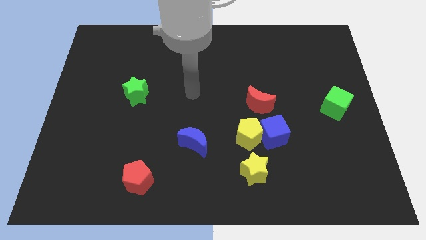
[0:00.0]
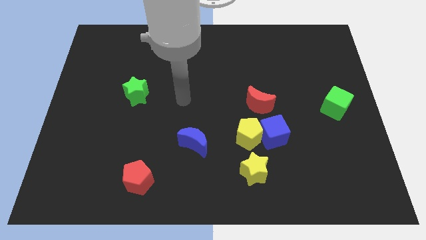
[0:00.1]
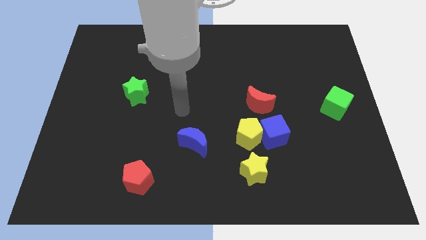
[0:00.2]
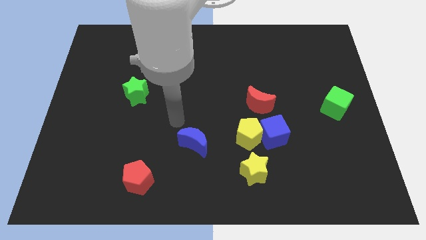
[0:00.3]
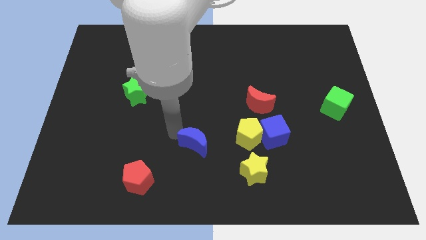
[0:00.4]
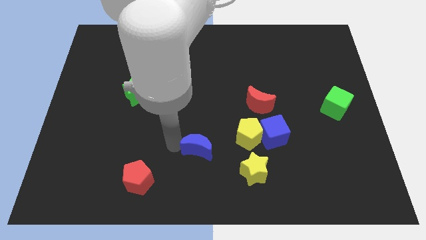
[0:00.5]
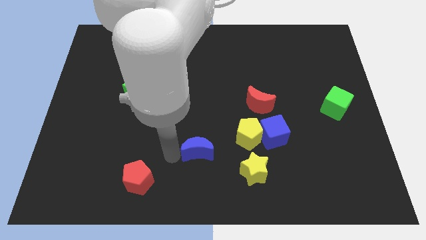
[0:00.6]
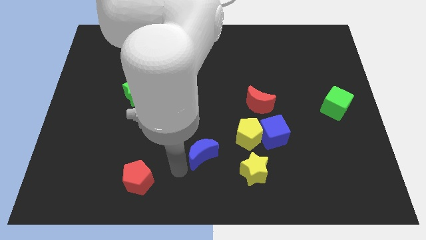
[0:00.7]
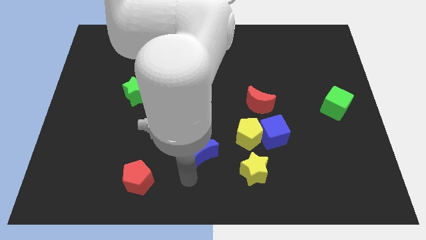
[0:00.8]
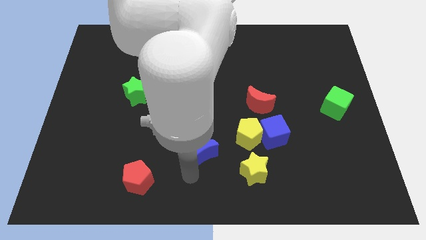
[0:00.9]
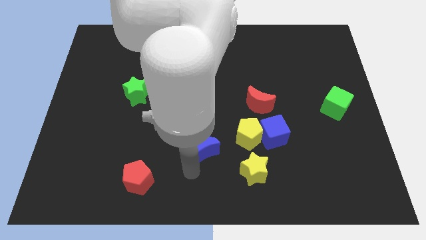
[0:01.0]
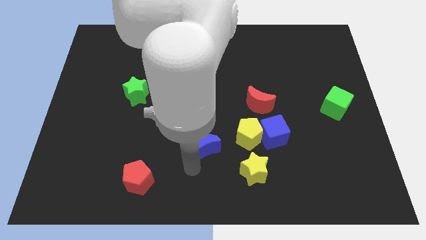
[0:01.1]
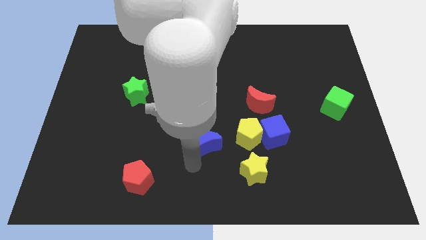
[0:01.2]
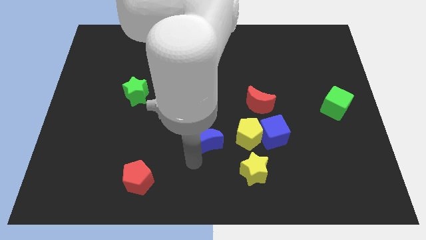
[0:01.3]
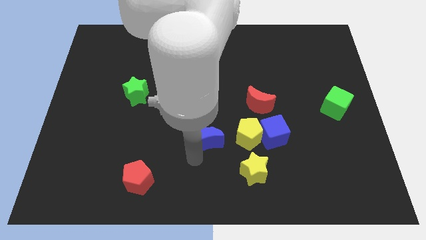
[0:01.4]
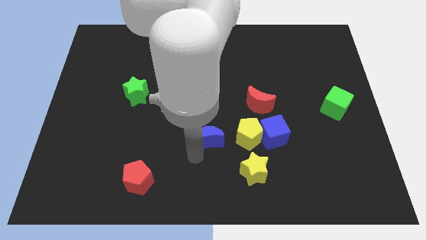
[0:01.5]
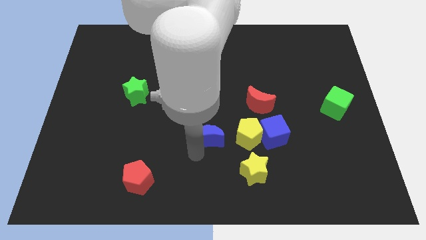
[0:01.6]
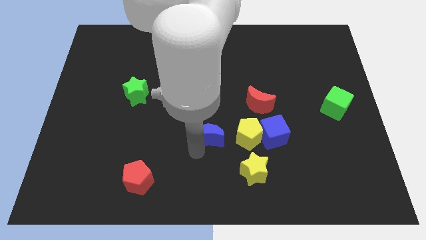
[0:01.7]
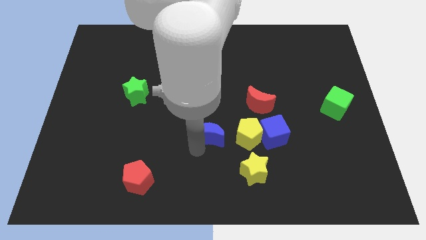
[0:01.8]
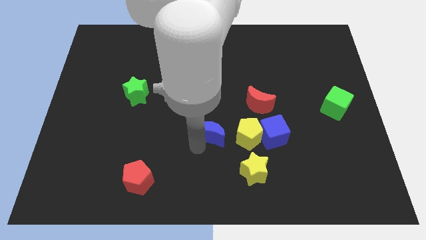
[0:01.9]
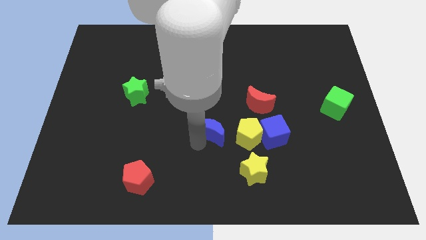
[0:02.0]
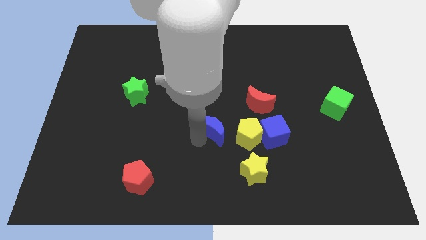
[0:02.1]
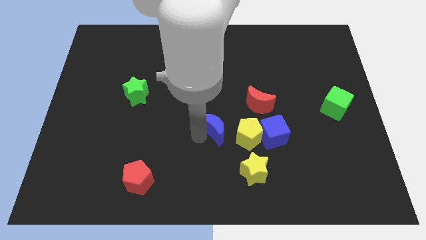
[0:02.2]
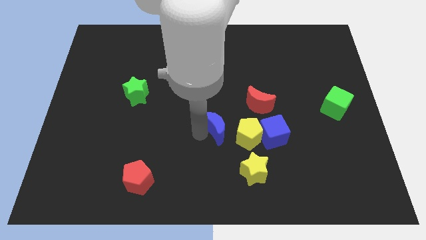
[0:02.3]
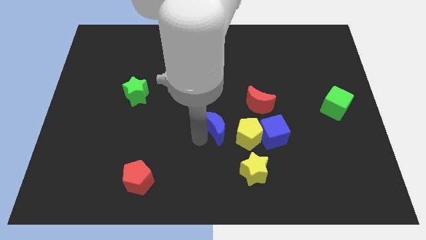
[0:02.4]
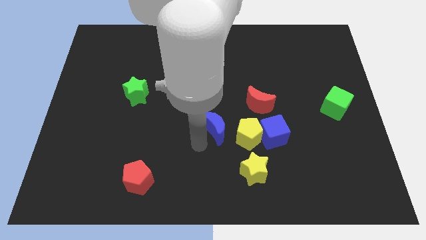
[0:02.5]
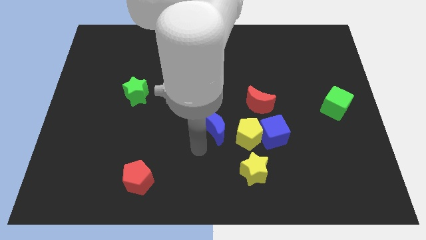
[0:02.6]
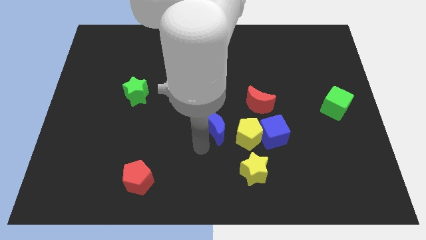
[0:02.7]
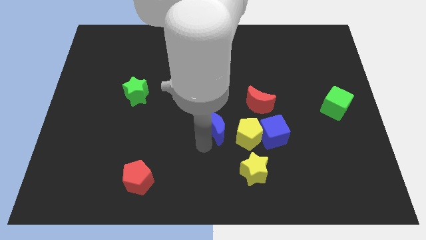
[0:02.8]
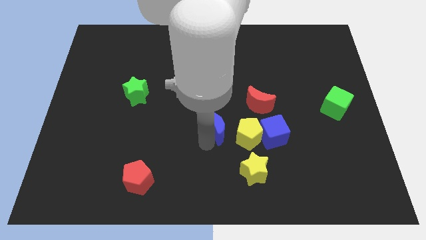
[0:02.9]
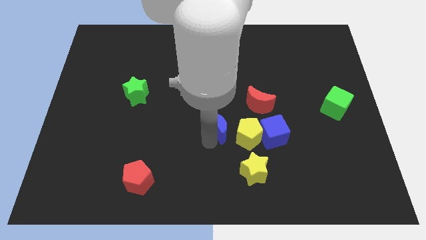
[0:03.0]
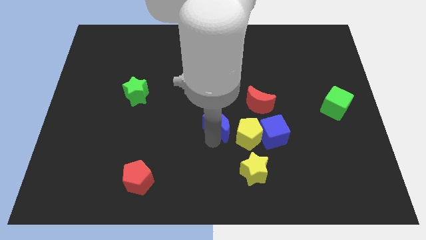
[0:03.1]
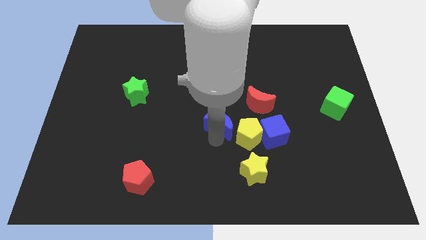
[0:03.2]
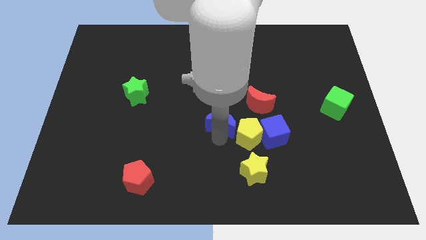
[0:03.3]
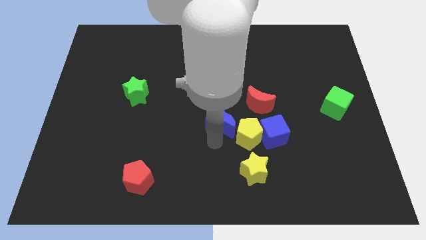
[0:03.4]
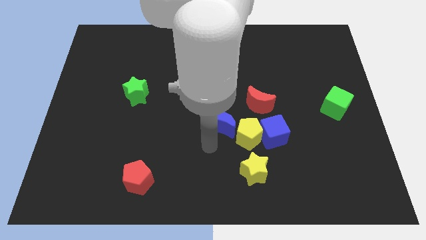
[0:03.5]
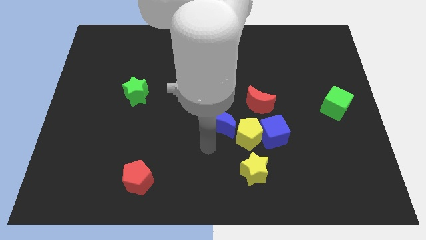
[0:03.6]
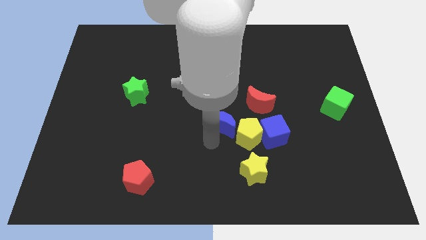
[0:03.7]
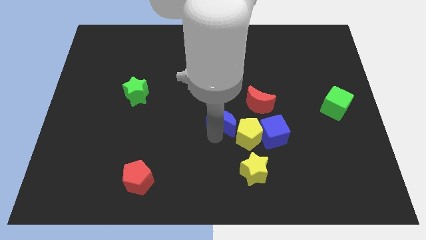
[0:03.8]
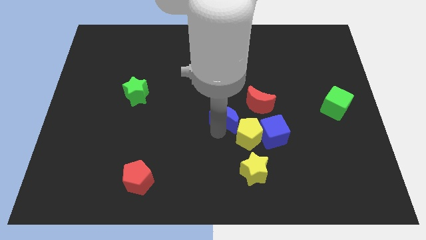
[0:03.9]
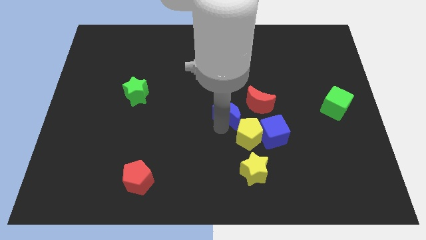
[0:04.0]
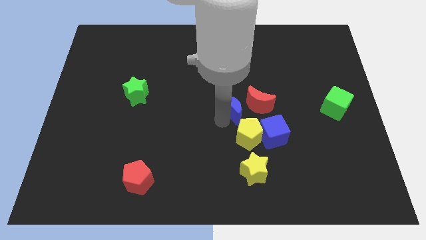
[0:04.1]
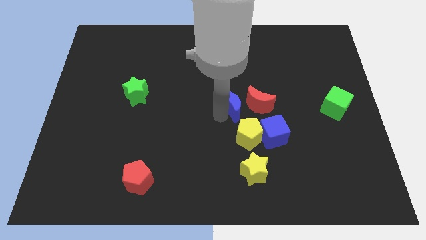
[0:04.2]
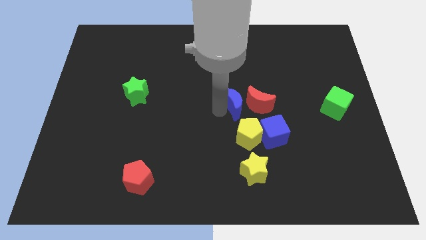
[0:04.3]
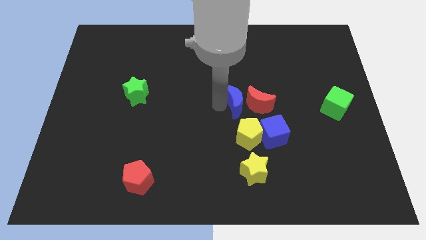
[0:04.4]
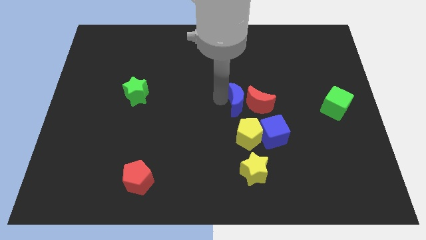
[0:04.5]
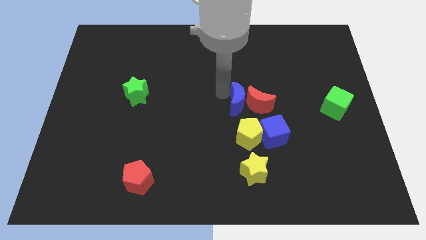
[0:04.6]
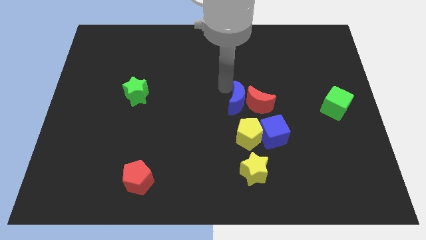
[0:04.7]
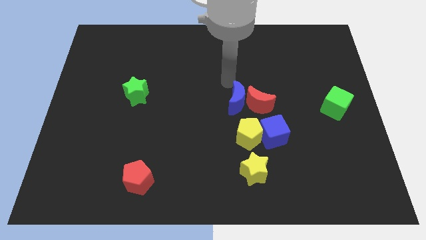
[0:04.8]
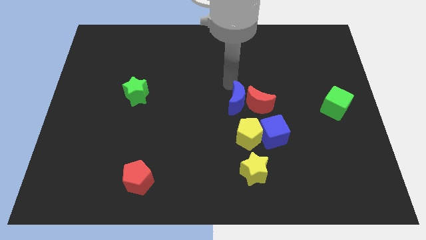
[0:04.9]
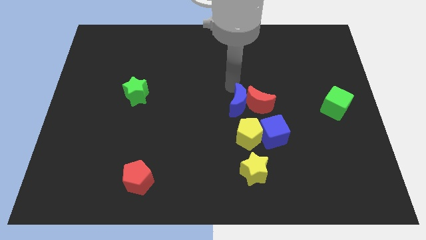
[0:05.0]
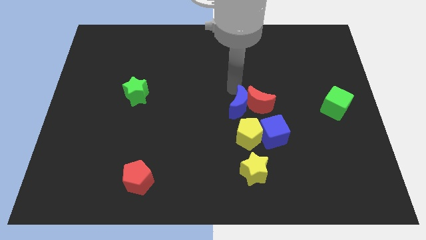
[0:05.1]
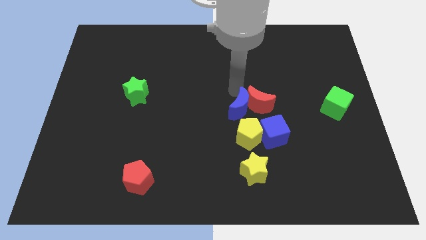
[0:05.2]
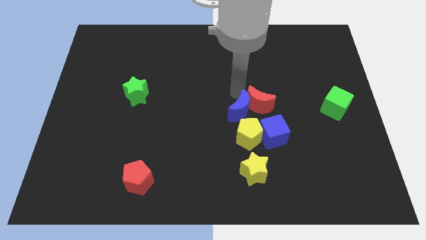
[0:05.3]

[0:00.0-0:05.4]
put the blue moon above the yellow star

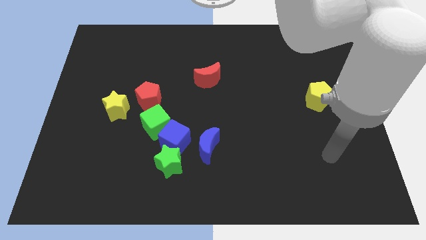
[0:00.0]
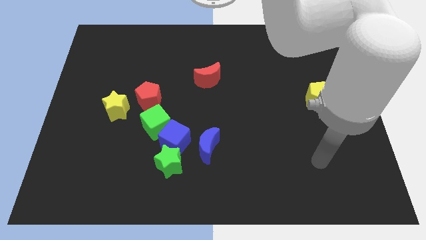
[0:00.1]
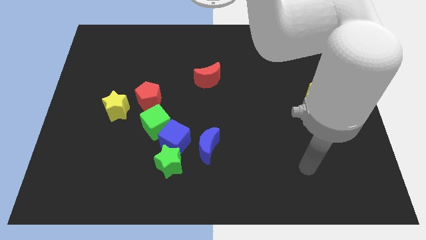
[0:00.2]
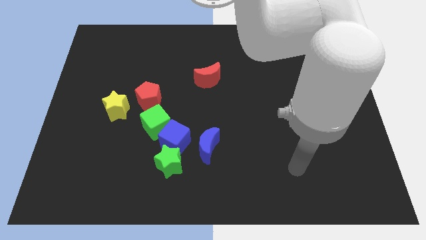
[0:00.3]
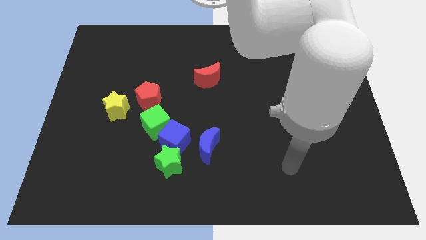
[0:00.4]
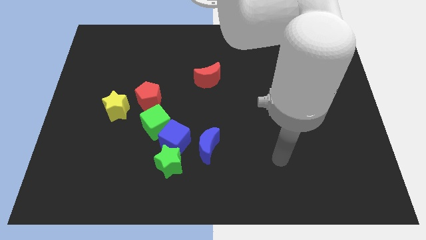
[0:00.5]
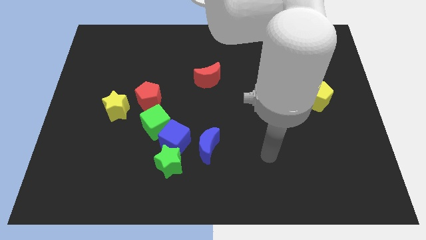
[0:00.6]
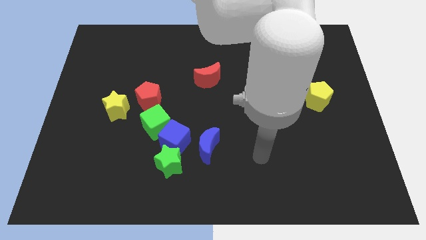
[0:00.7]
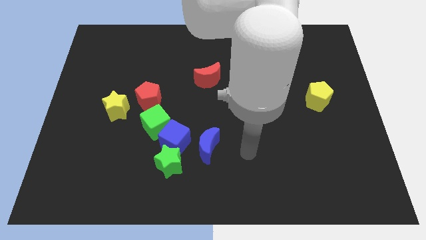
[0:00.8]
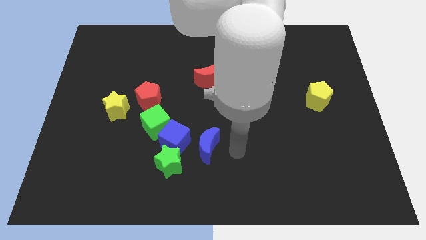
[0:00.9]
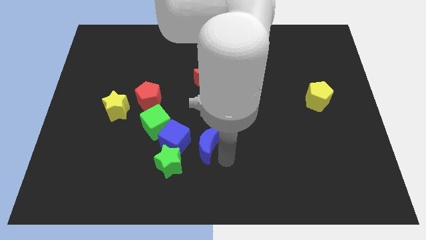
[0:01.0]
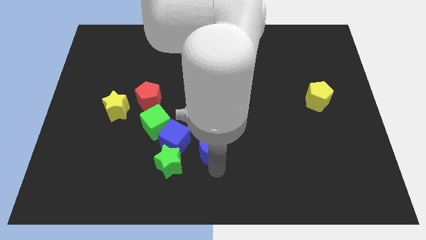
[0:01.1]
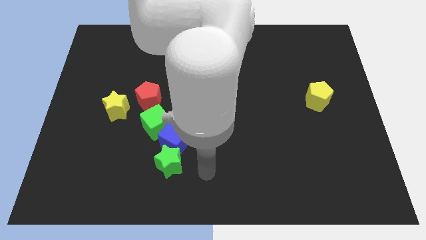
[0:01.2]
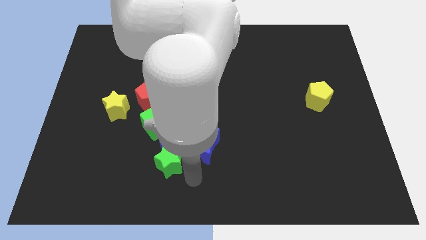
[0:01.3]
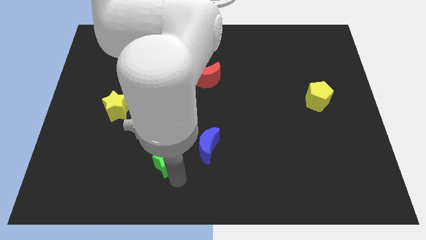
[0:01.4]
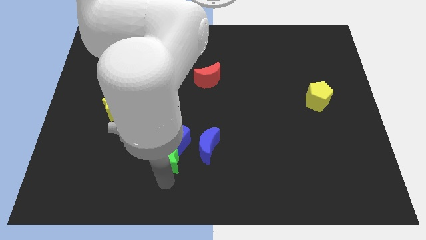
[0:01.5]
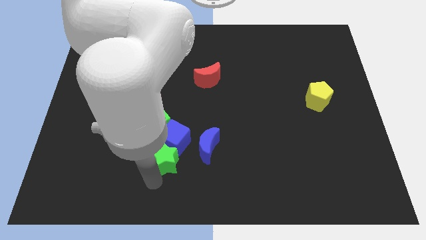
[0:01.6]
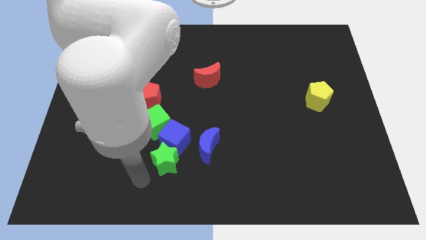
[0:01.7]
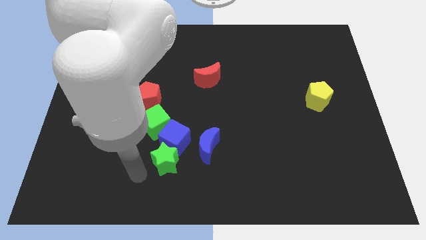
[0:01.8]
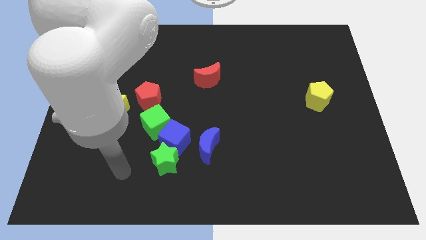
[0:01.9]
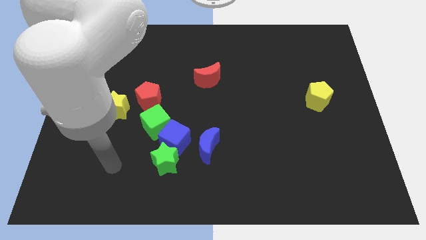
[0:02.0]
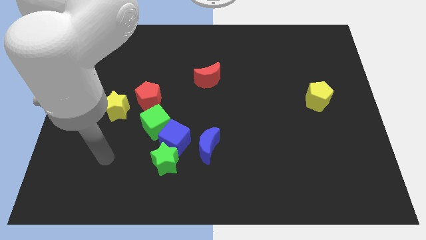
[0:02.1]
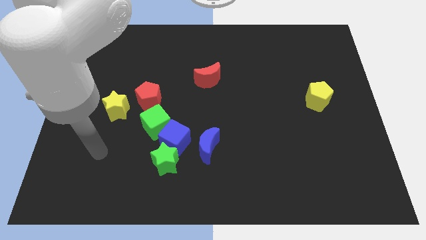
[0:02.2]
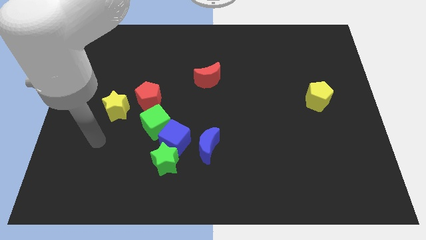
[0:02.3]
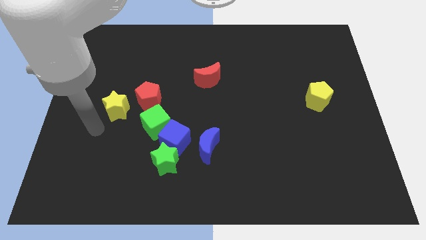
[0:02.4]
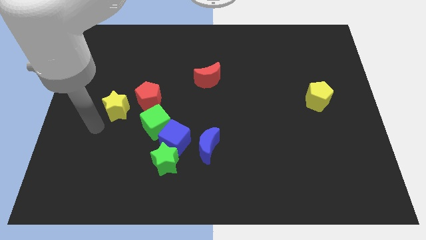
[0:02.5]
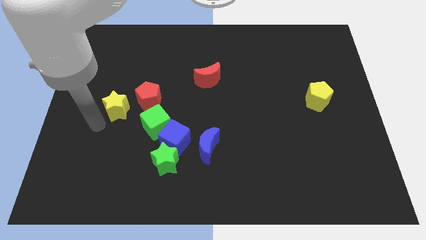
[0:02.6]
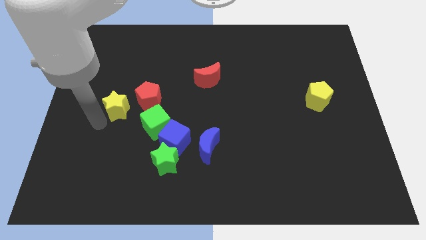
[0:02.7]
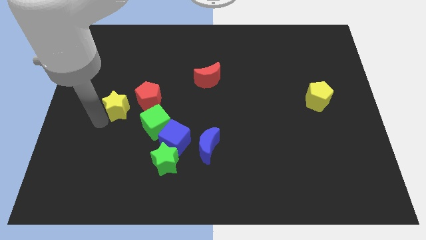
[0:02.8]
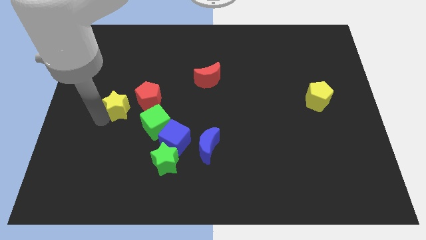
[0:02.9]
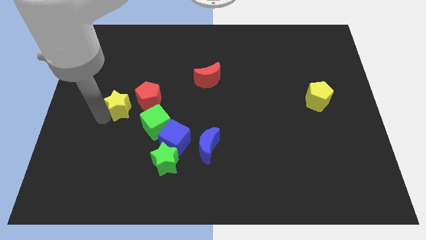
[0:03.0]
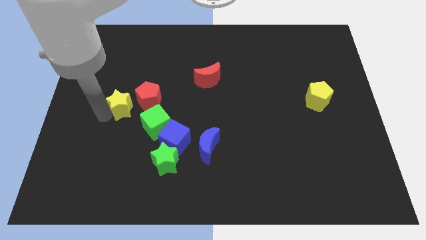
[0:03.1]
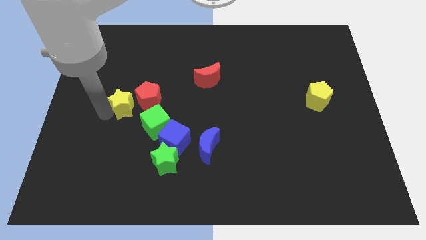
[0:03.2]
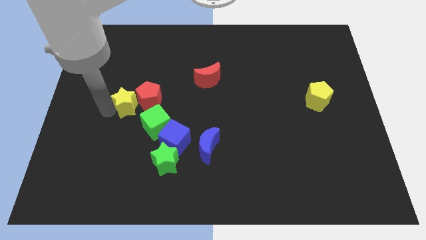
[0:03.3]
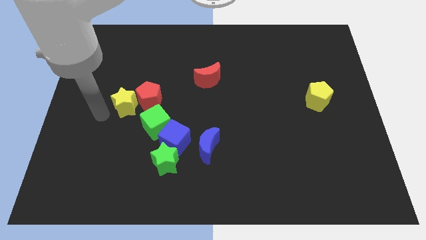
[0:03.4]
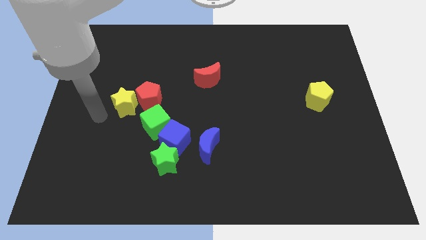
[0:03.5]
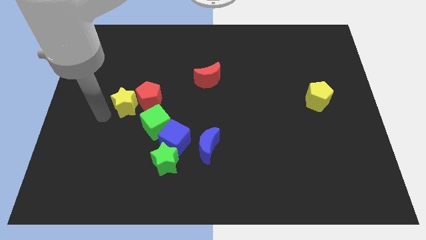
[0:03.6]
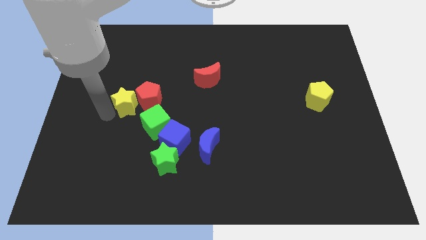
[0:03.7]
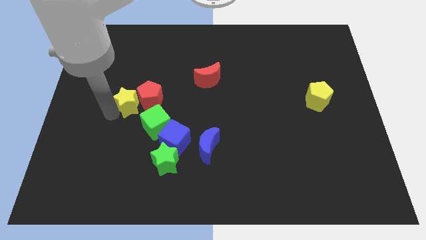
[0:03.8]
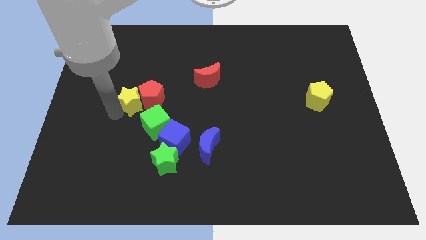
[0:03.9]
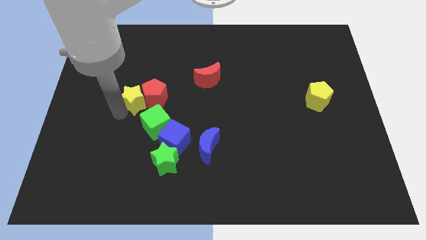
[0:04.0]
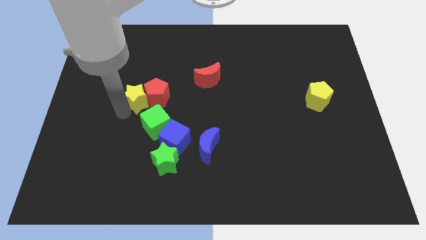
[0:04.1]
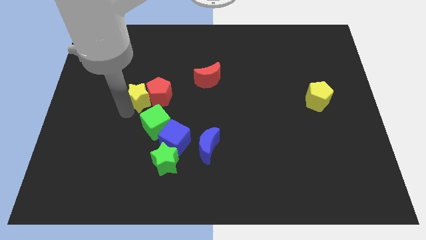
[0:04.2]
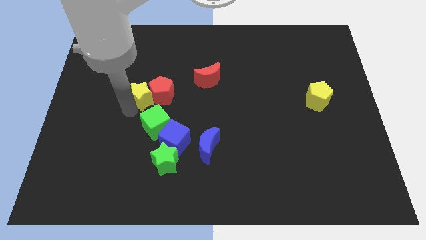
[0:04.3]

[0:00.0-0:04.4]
put the yellow star to the top side of the green cube
